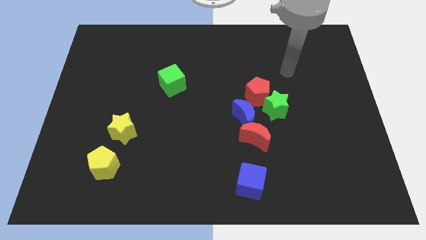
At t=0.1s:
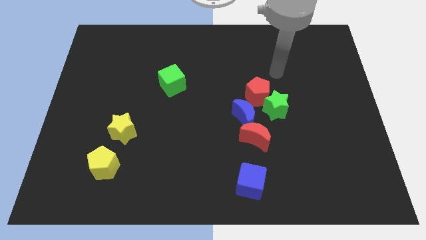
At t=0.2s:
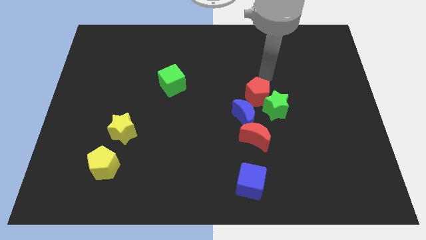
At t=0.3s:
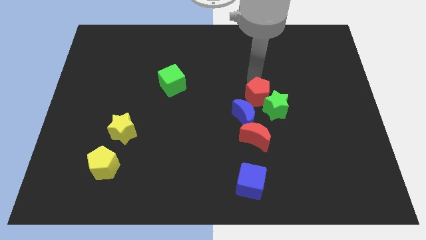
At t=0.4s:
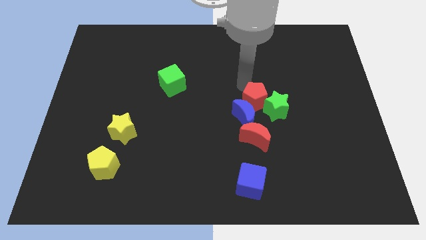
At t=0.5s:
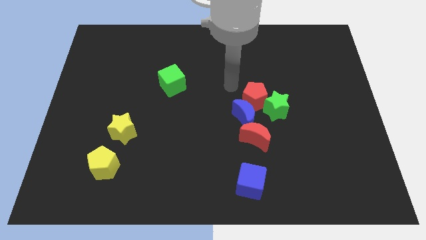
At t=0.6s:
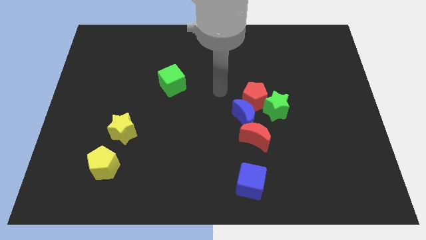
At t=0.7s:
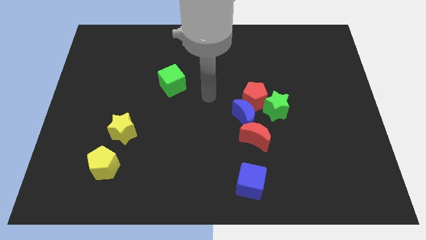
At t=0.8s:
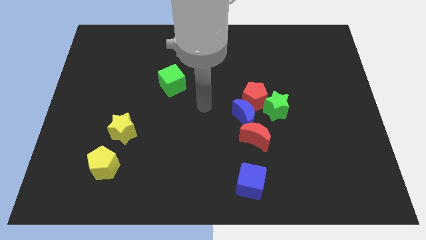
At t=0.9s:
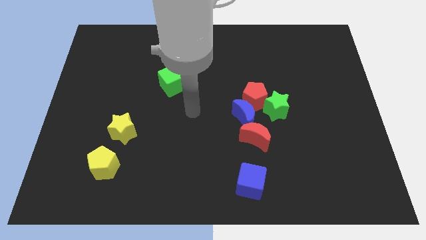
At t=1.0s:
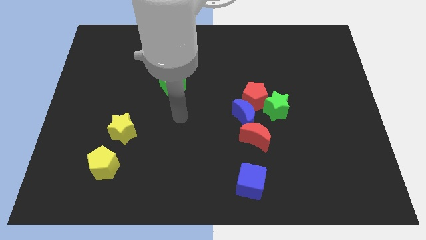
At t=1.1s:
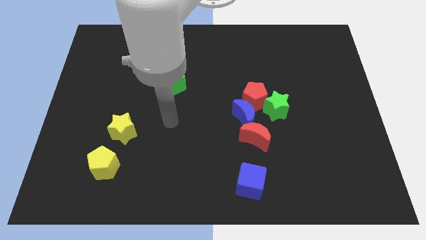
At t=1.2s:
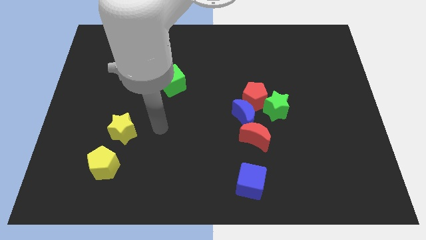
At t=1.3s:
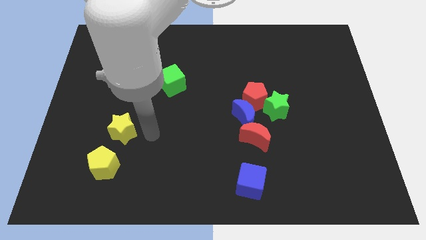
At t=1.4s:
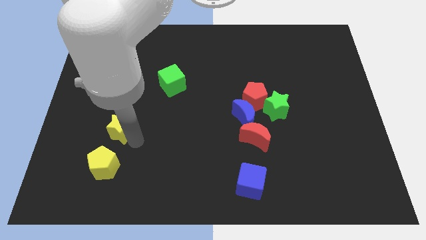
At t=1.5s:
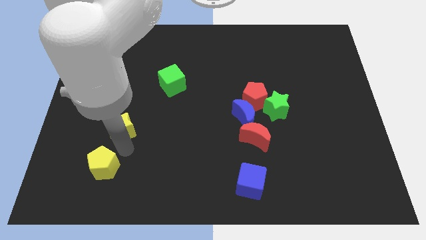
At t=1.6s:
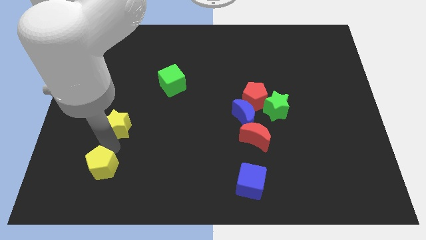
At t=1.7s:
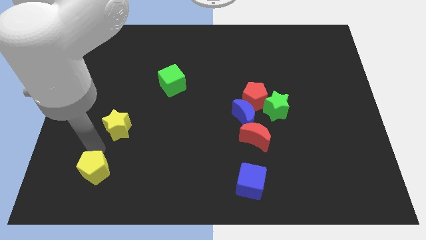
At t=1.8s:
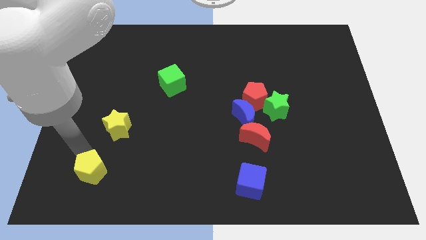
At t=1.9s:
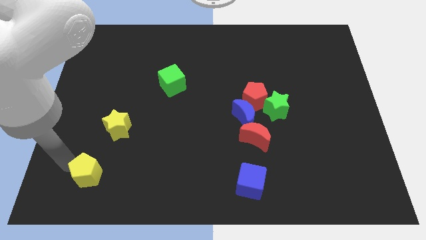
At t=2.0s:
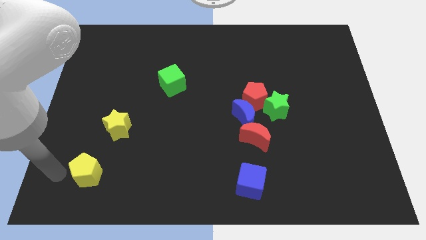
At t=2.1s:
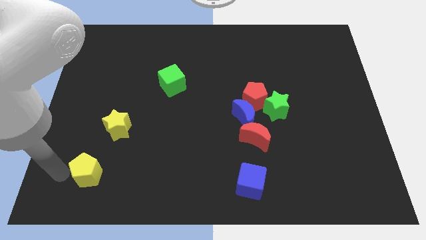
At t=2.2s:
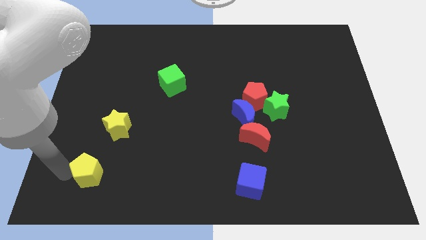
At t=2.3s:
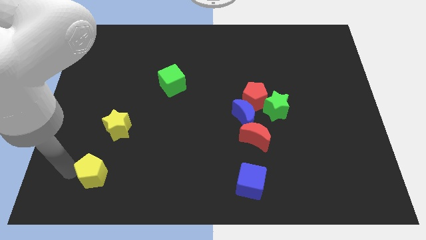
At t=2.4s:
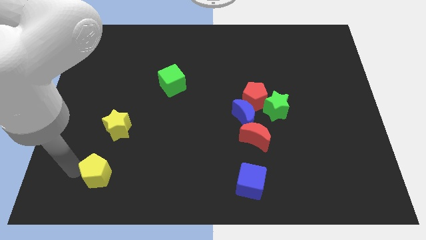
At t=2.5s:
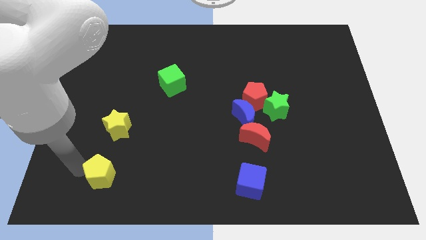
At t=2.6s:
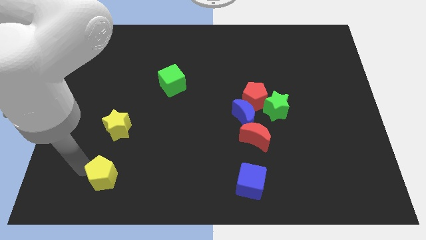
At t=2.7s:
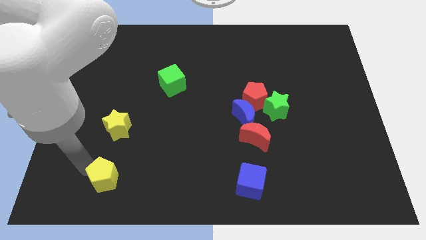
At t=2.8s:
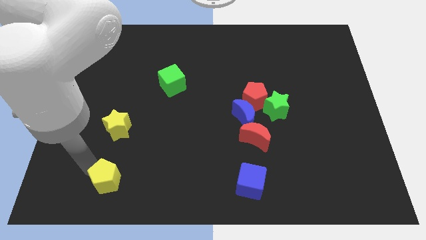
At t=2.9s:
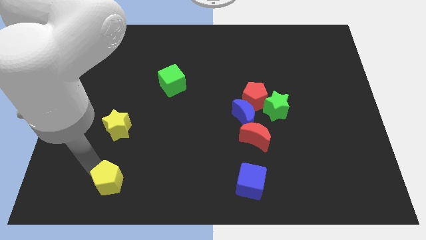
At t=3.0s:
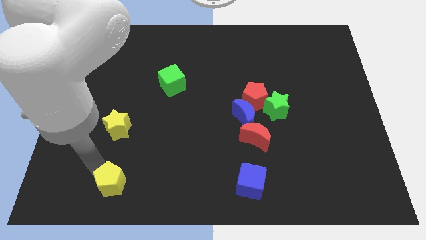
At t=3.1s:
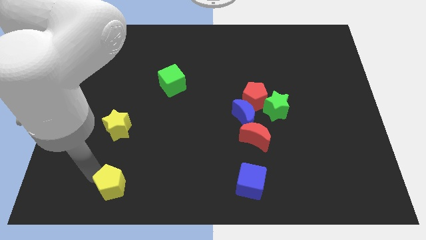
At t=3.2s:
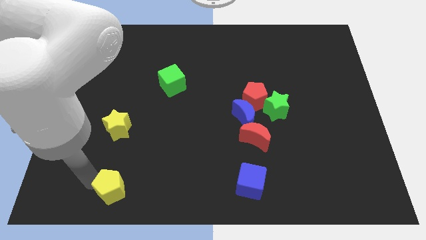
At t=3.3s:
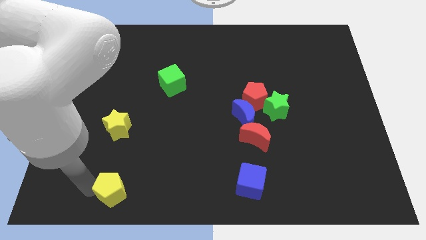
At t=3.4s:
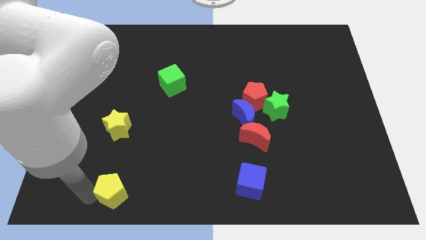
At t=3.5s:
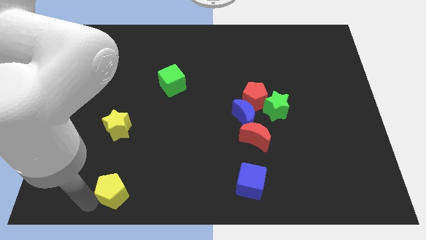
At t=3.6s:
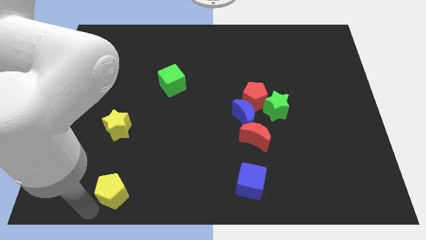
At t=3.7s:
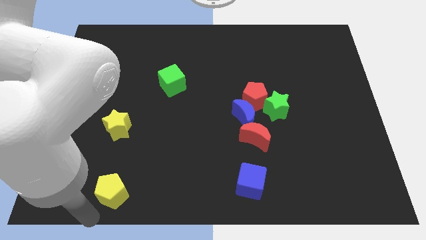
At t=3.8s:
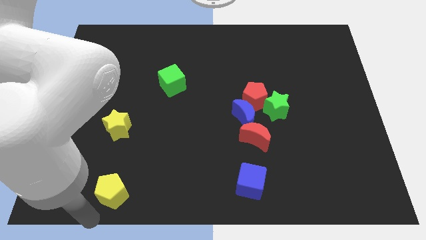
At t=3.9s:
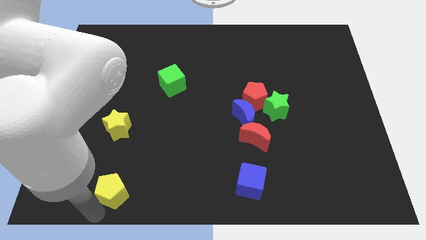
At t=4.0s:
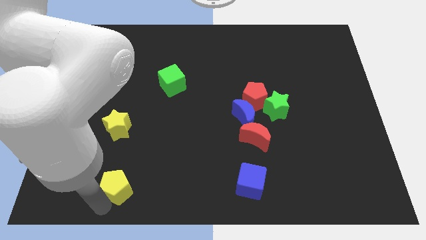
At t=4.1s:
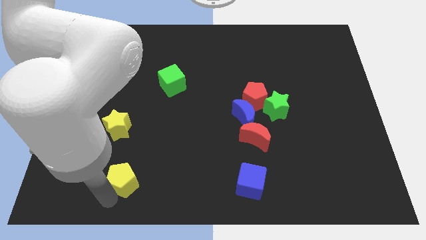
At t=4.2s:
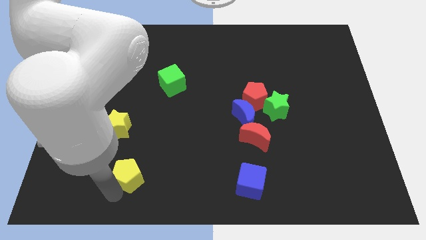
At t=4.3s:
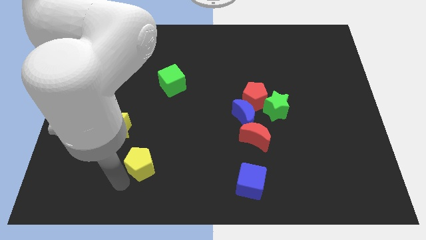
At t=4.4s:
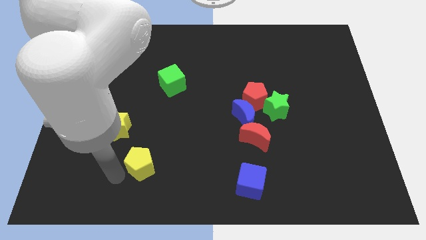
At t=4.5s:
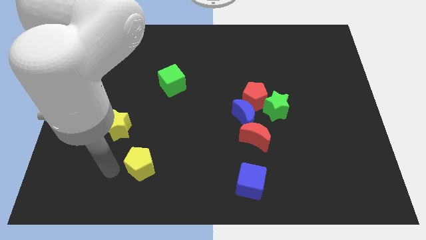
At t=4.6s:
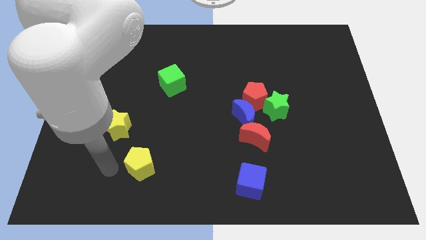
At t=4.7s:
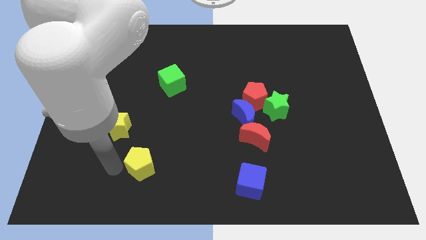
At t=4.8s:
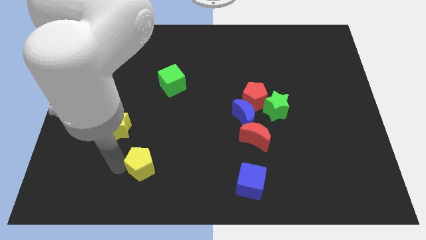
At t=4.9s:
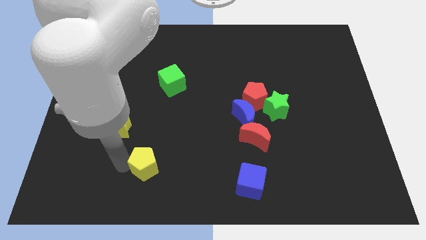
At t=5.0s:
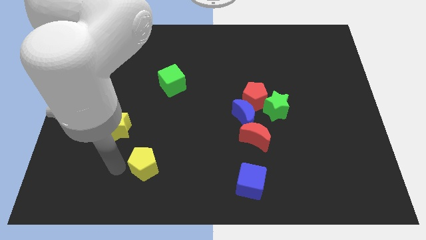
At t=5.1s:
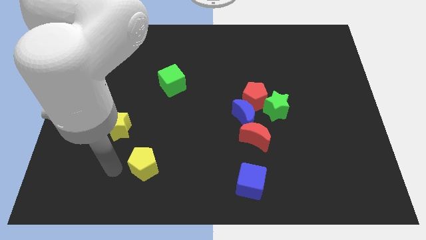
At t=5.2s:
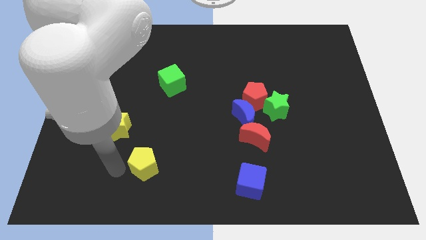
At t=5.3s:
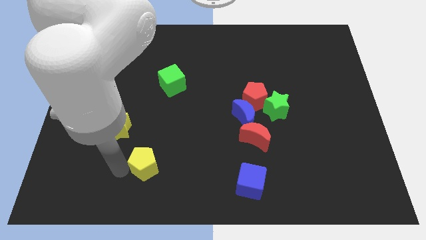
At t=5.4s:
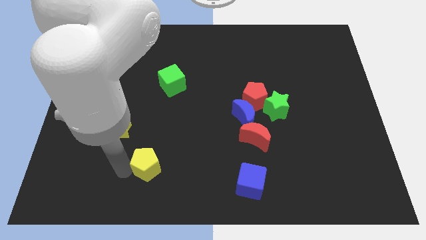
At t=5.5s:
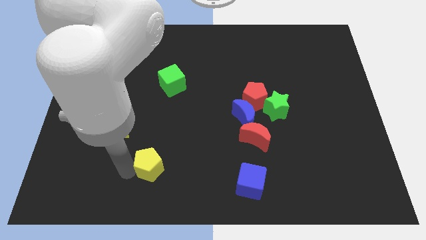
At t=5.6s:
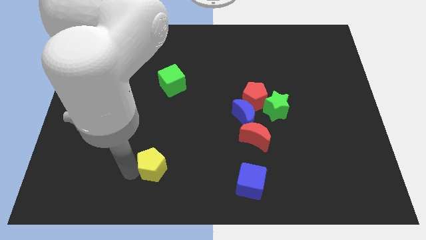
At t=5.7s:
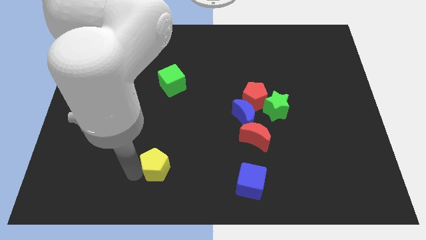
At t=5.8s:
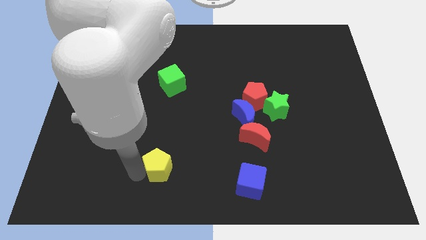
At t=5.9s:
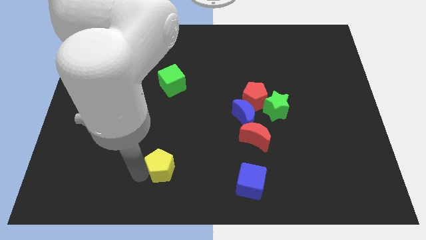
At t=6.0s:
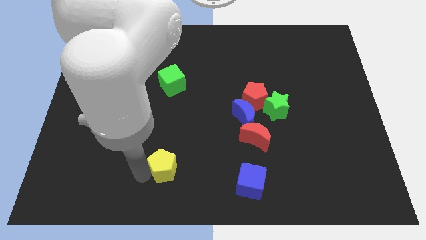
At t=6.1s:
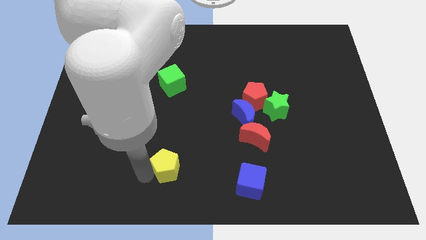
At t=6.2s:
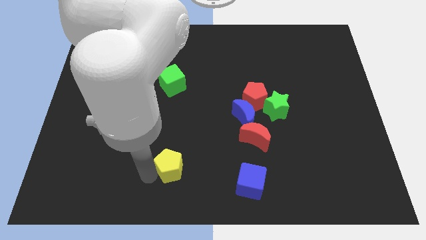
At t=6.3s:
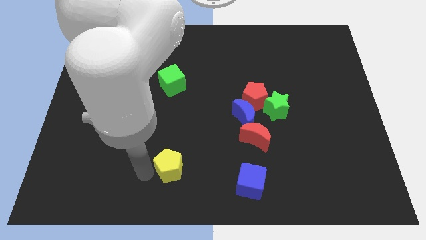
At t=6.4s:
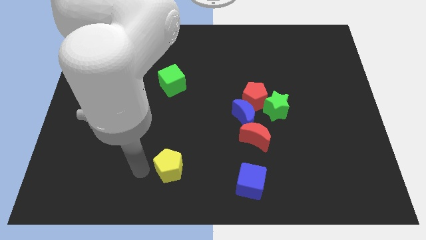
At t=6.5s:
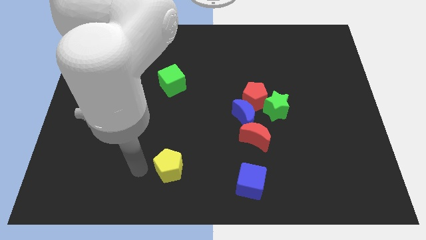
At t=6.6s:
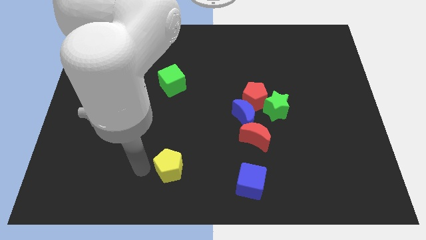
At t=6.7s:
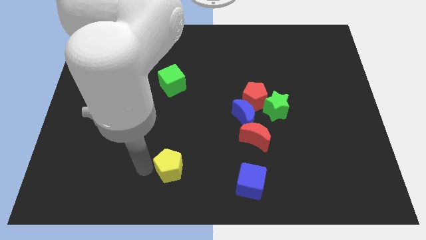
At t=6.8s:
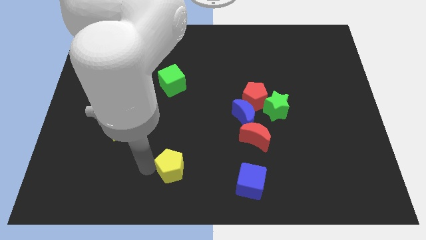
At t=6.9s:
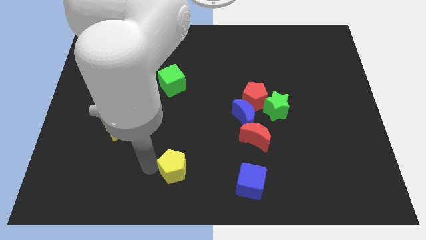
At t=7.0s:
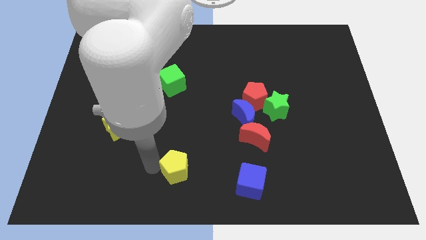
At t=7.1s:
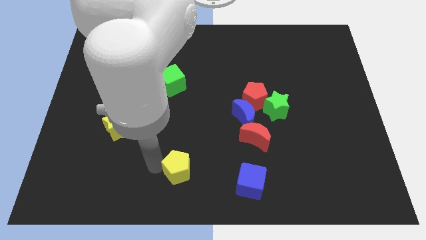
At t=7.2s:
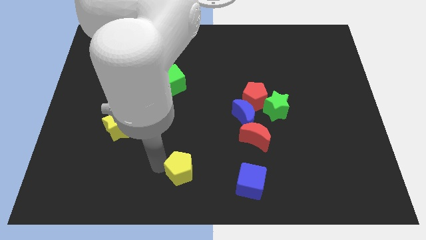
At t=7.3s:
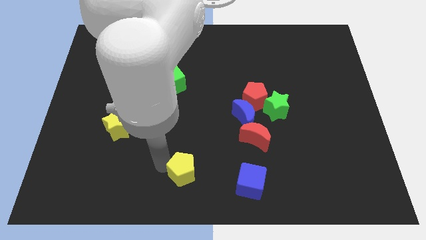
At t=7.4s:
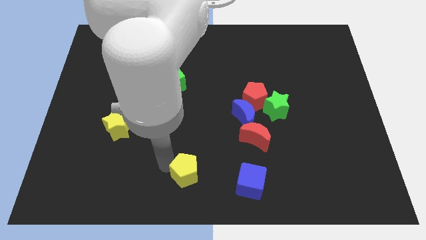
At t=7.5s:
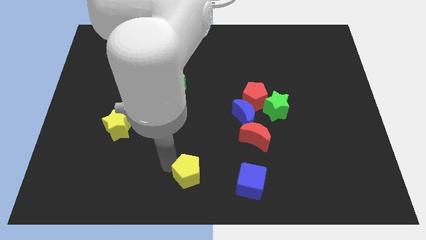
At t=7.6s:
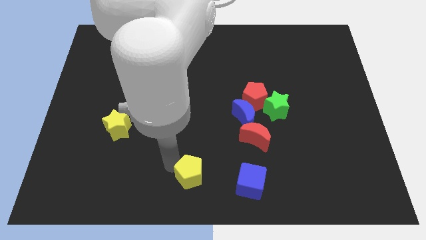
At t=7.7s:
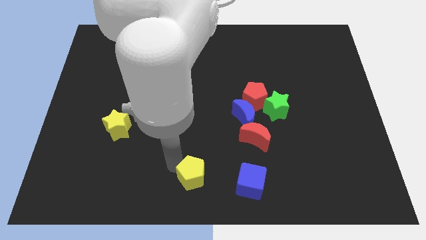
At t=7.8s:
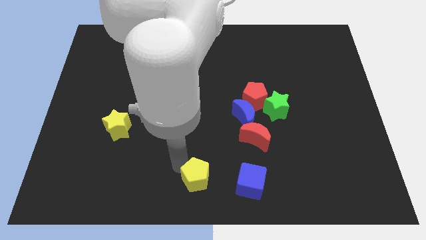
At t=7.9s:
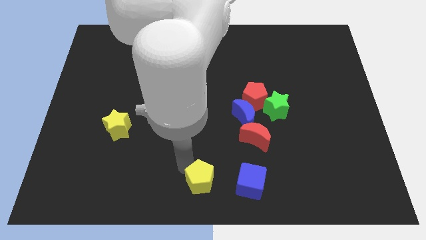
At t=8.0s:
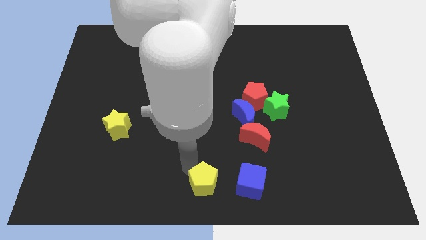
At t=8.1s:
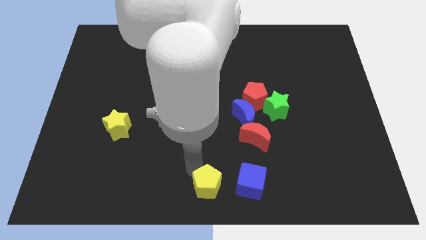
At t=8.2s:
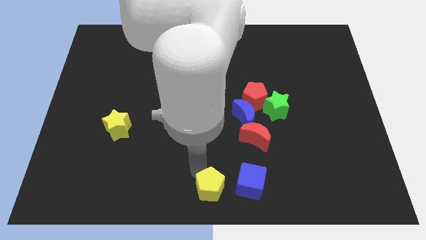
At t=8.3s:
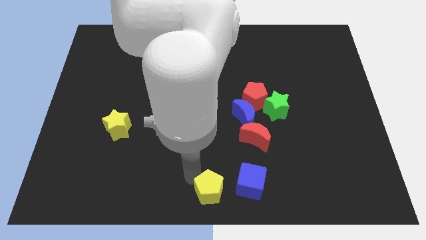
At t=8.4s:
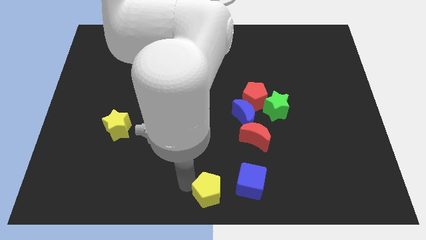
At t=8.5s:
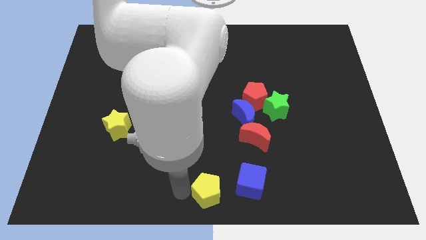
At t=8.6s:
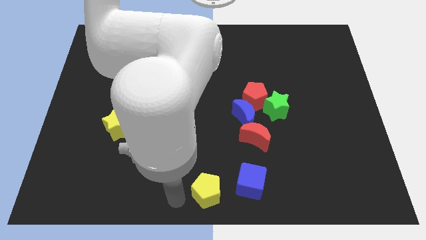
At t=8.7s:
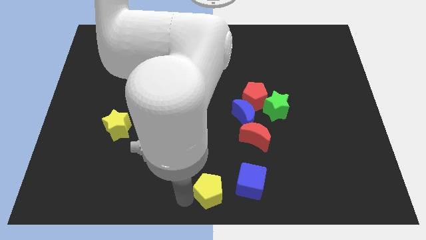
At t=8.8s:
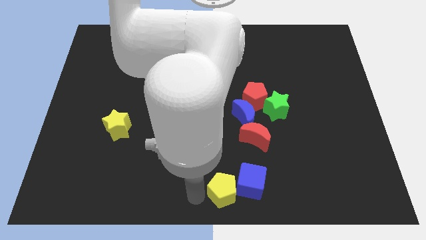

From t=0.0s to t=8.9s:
put the yellow pentagon next to the blue cube
